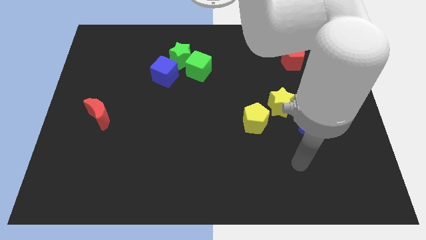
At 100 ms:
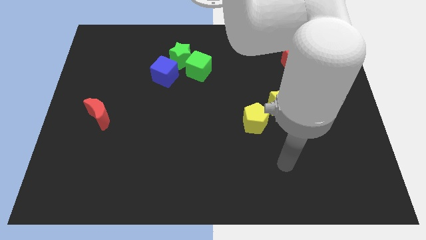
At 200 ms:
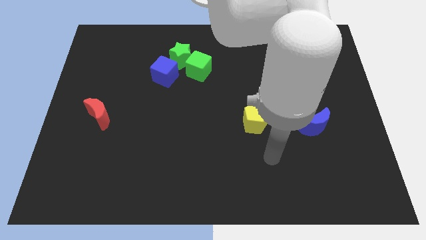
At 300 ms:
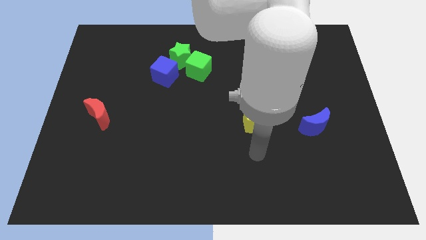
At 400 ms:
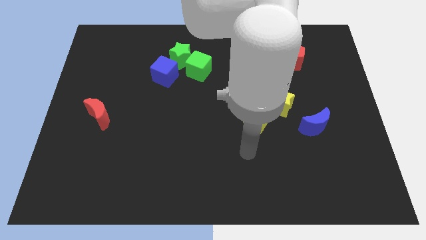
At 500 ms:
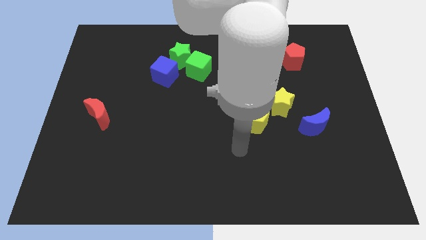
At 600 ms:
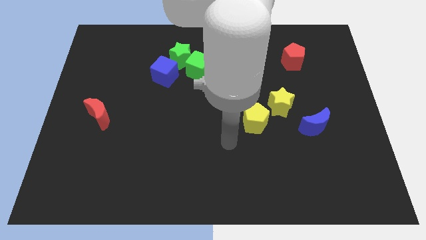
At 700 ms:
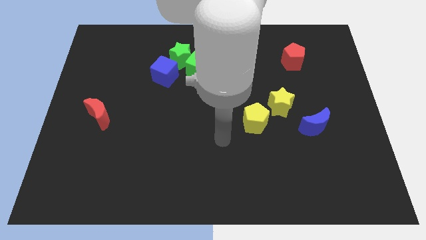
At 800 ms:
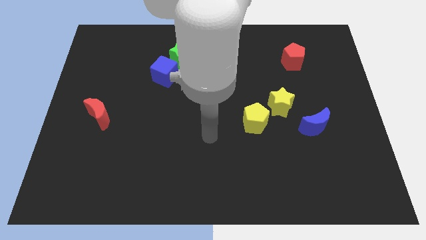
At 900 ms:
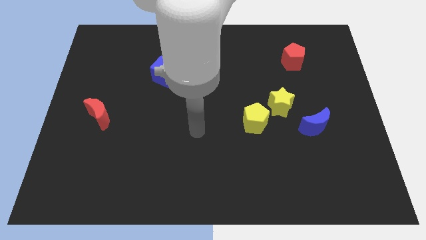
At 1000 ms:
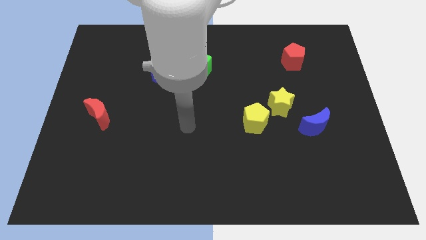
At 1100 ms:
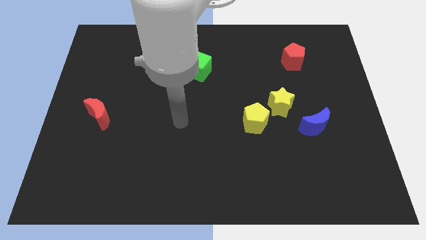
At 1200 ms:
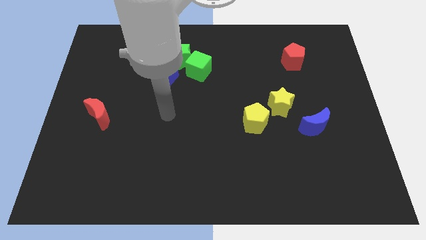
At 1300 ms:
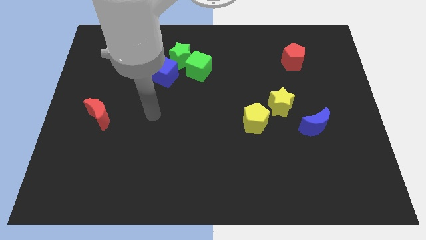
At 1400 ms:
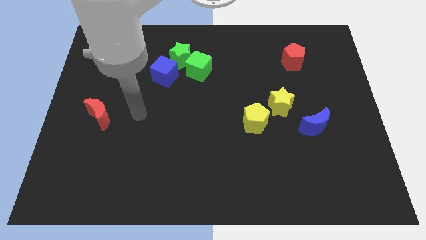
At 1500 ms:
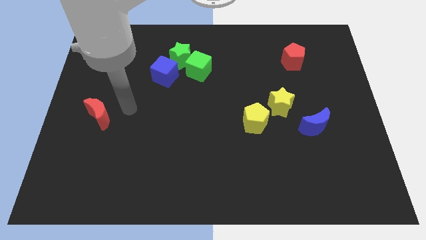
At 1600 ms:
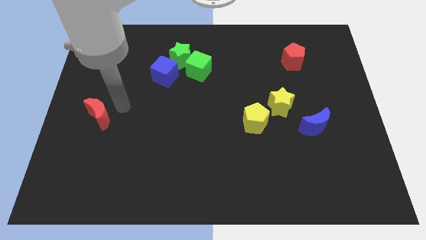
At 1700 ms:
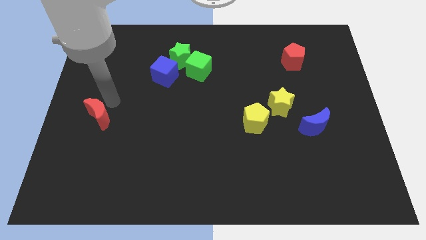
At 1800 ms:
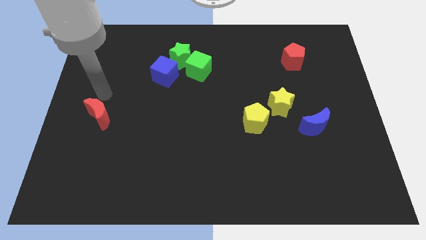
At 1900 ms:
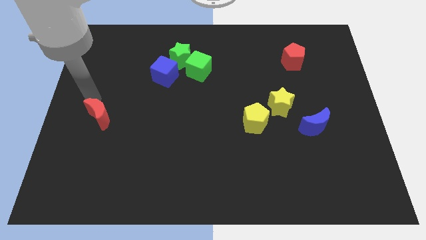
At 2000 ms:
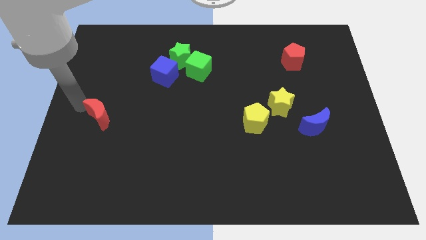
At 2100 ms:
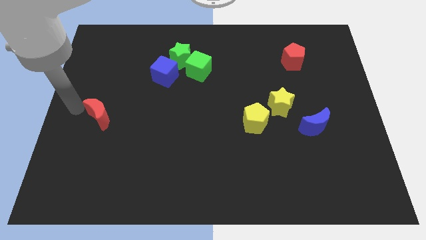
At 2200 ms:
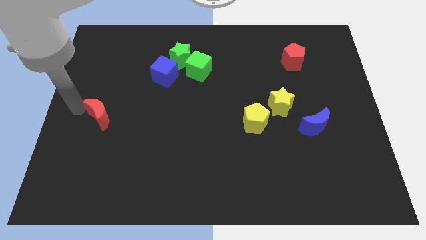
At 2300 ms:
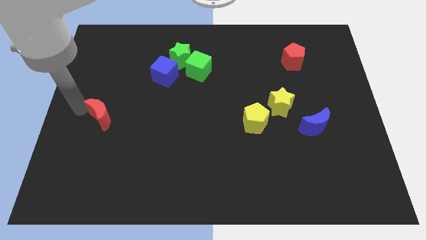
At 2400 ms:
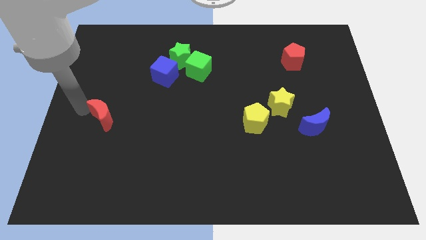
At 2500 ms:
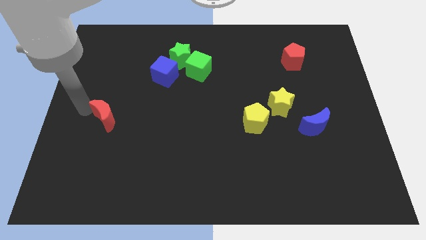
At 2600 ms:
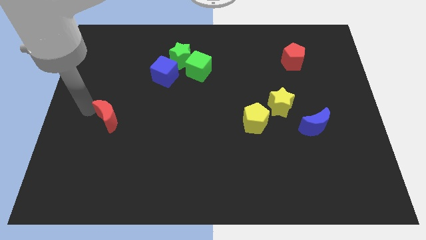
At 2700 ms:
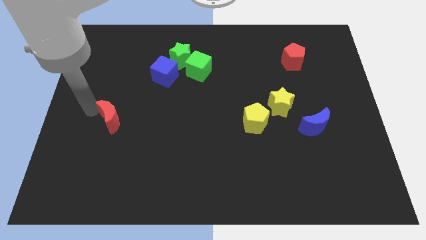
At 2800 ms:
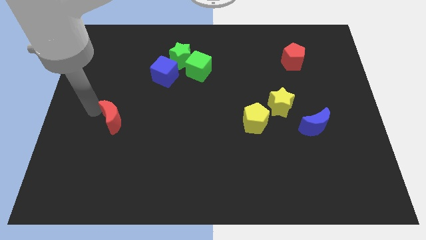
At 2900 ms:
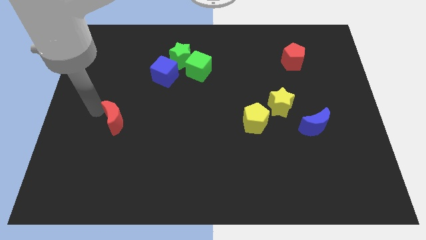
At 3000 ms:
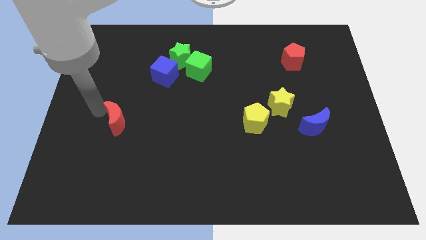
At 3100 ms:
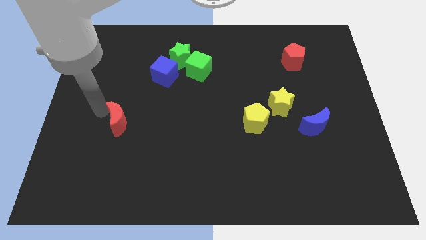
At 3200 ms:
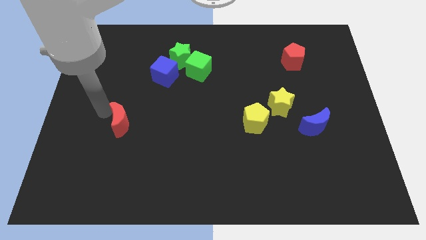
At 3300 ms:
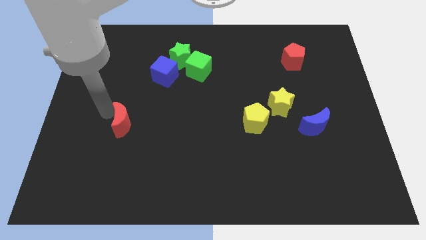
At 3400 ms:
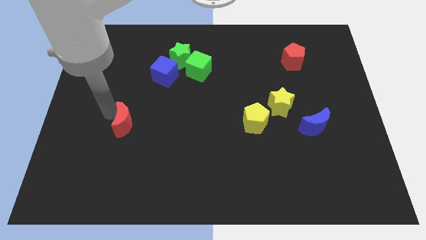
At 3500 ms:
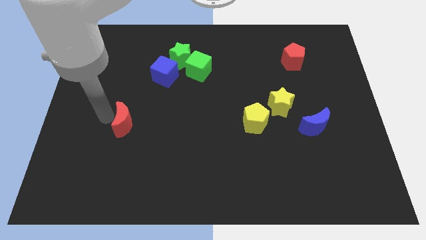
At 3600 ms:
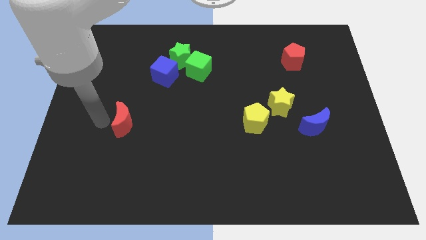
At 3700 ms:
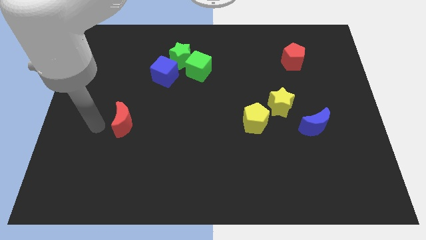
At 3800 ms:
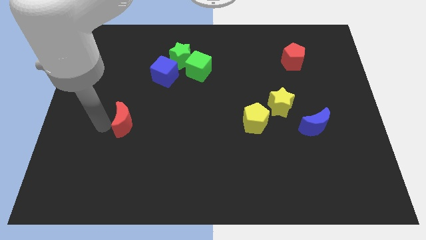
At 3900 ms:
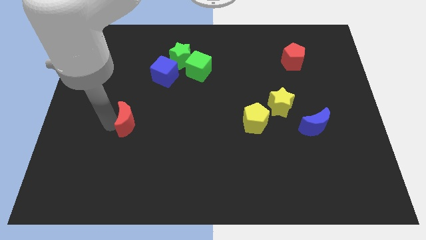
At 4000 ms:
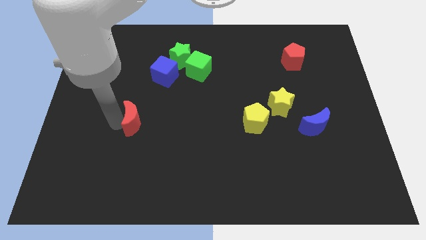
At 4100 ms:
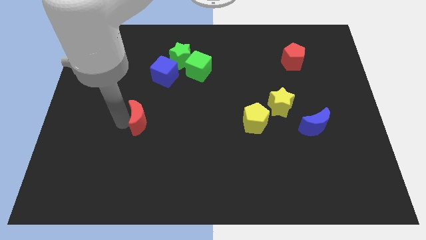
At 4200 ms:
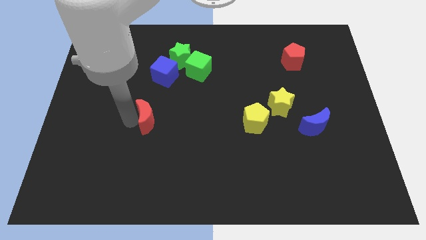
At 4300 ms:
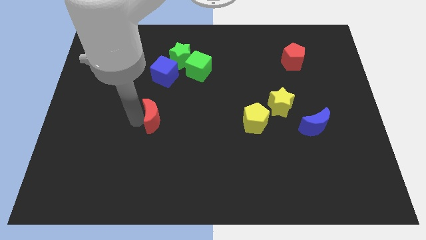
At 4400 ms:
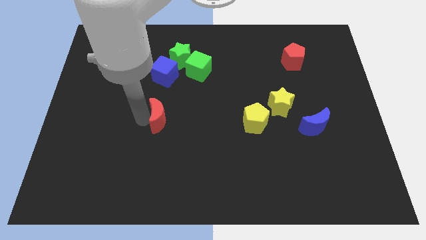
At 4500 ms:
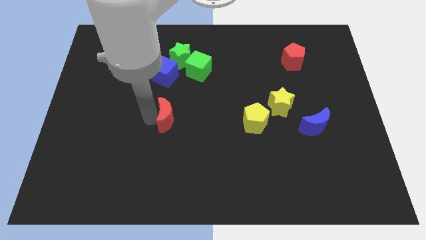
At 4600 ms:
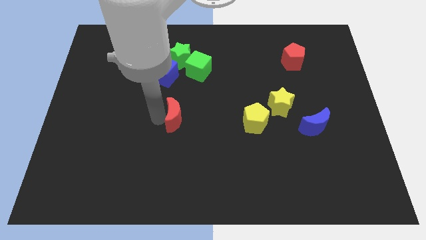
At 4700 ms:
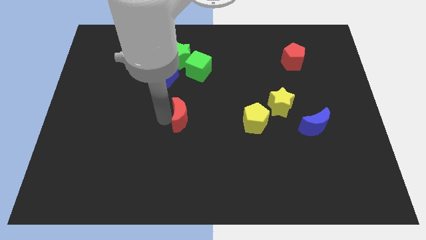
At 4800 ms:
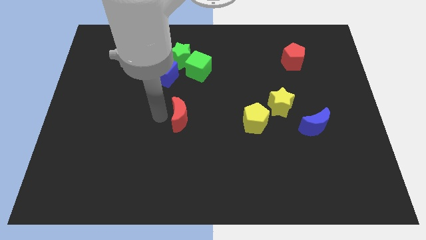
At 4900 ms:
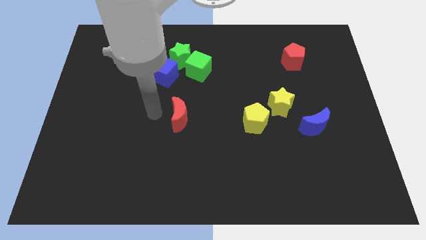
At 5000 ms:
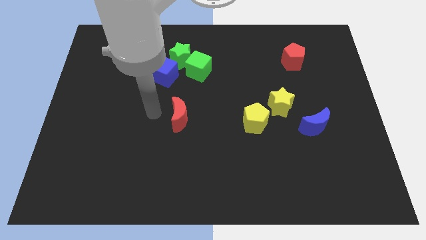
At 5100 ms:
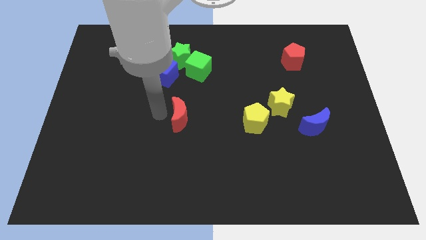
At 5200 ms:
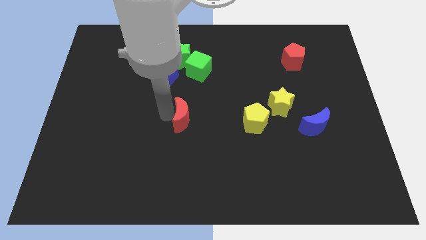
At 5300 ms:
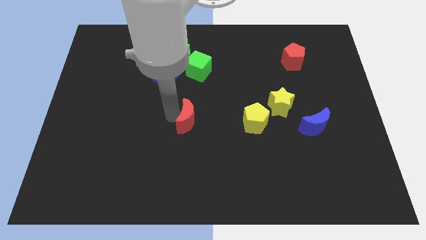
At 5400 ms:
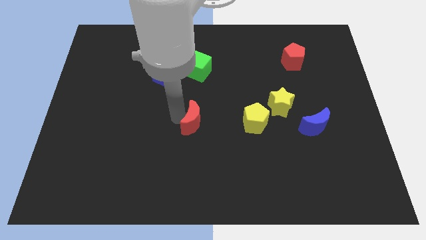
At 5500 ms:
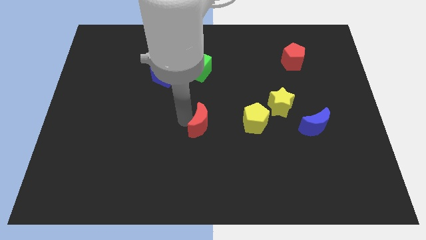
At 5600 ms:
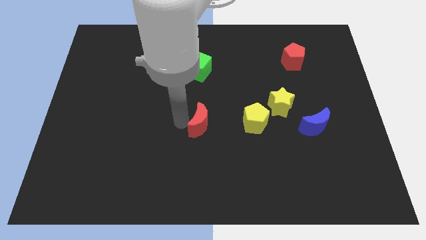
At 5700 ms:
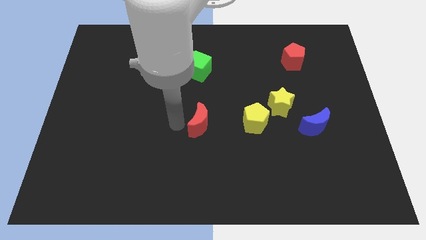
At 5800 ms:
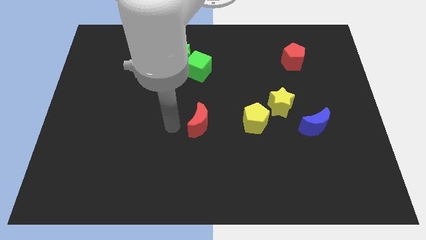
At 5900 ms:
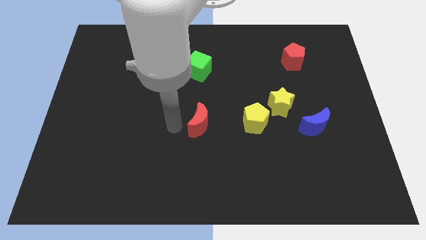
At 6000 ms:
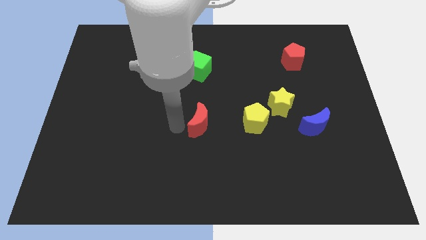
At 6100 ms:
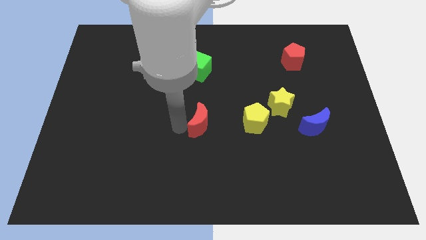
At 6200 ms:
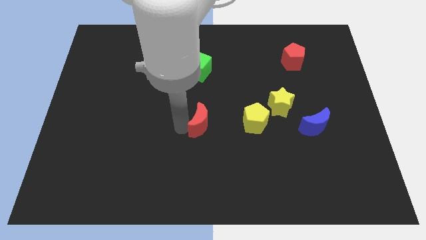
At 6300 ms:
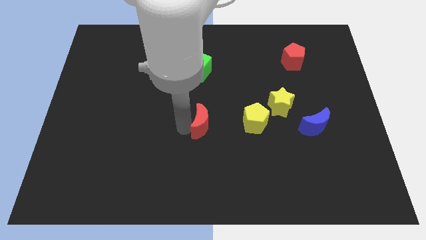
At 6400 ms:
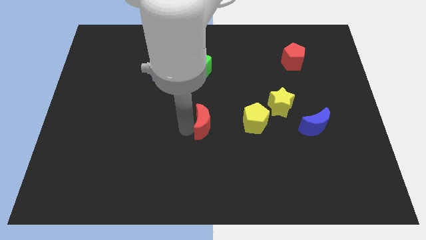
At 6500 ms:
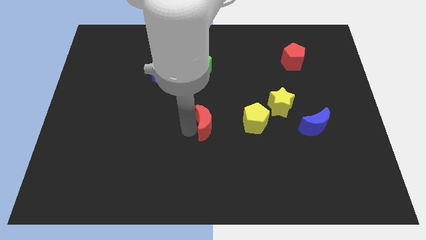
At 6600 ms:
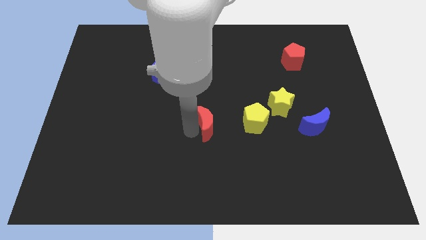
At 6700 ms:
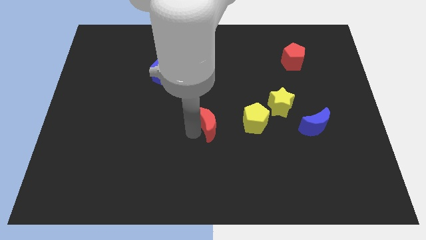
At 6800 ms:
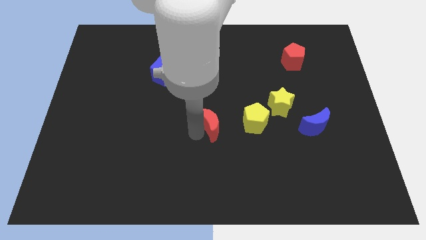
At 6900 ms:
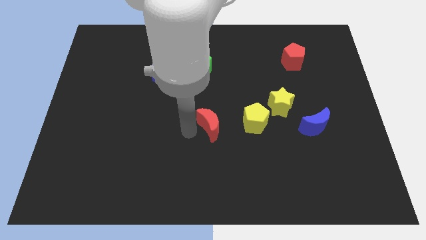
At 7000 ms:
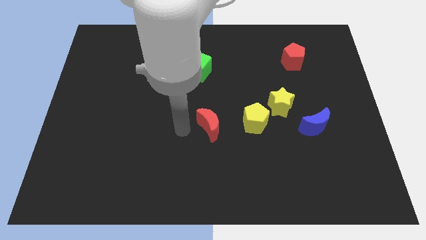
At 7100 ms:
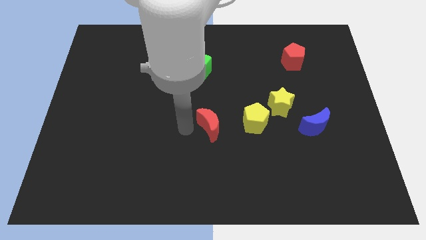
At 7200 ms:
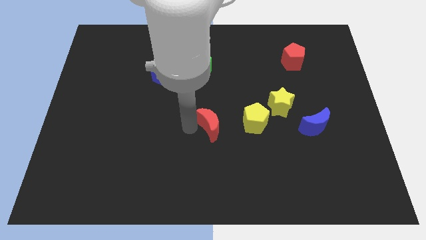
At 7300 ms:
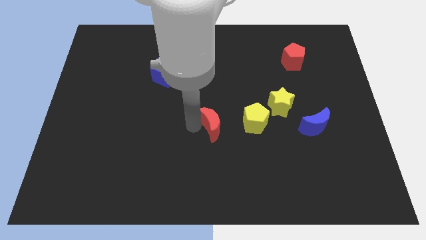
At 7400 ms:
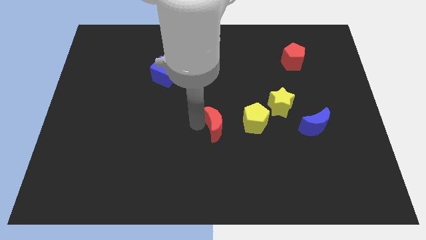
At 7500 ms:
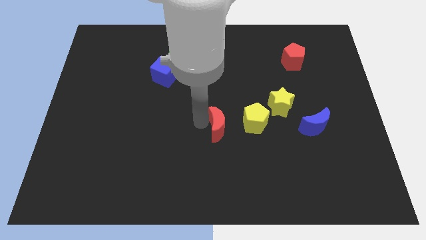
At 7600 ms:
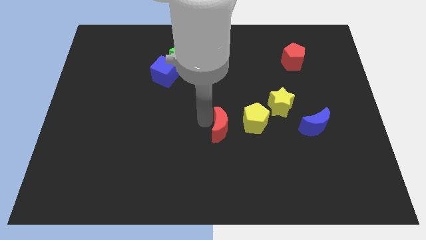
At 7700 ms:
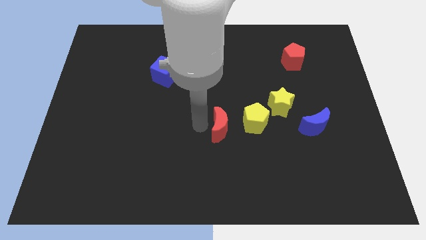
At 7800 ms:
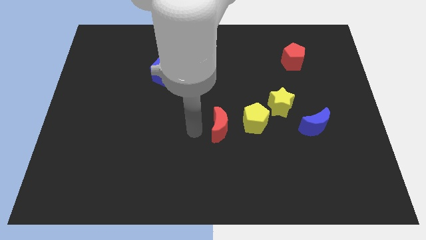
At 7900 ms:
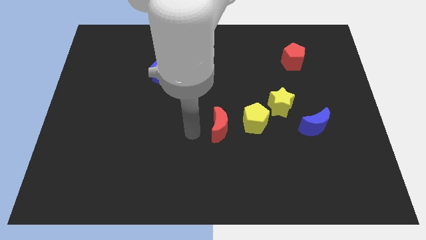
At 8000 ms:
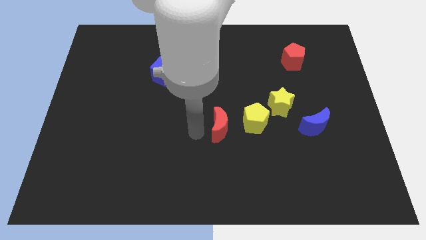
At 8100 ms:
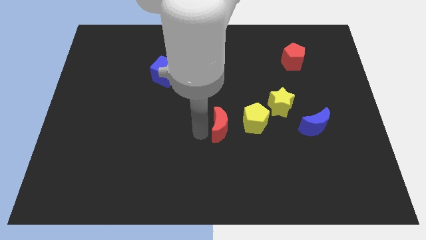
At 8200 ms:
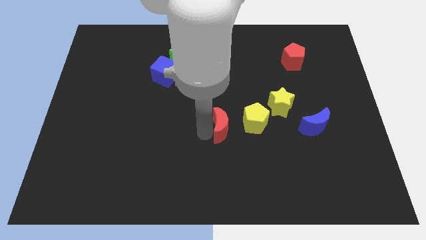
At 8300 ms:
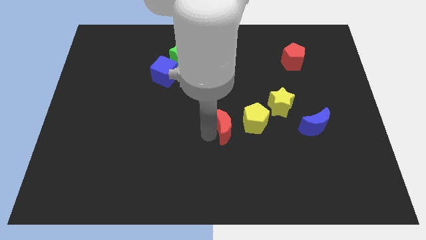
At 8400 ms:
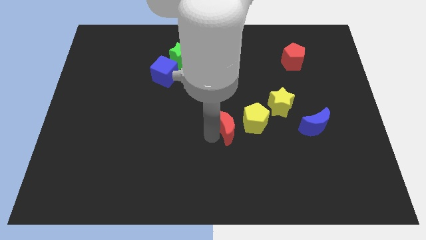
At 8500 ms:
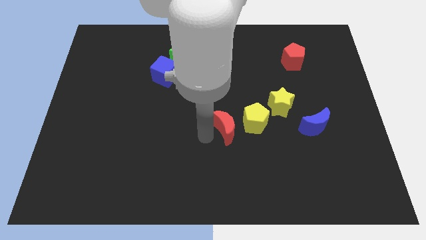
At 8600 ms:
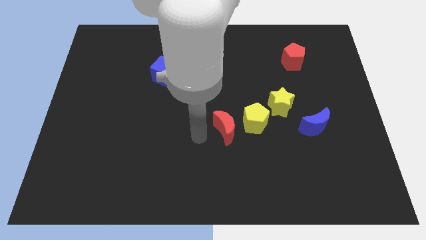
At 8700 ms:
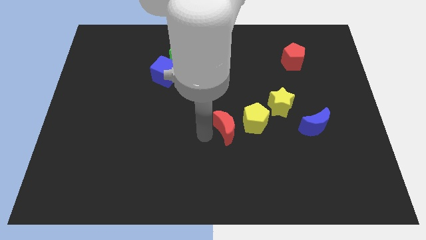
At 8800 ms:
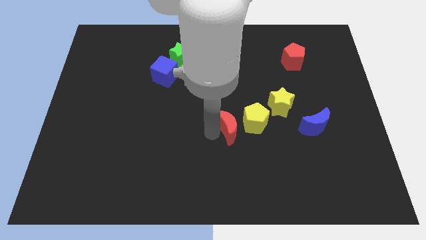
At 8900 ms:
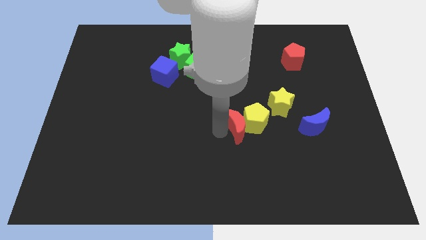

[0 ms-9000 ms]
slide the red moon close to the yellow pentagon
